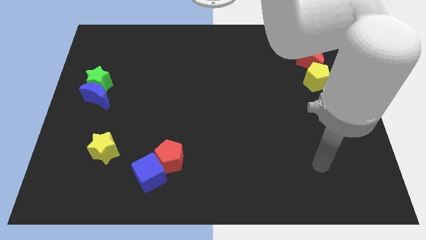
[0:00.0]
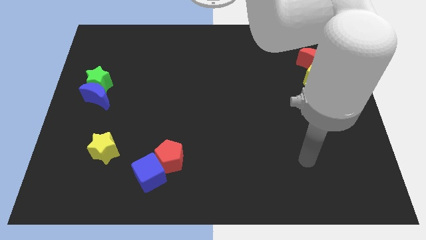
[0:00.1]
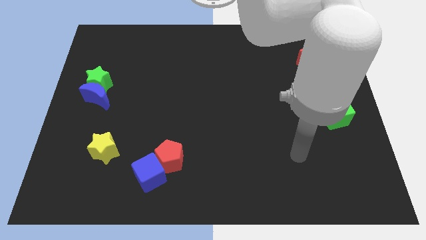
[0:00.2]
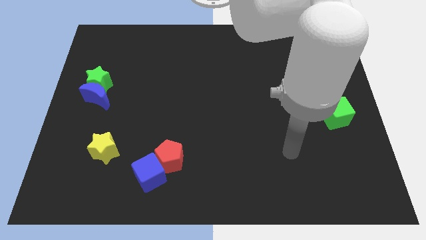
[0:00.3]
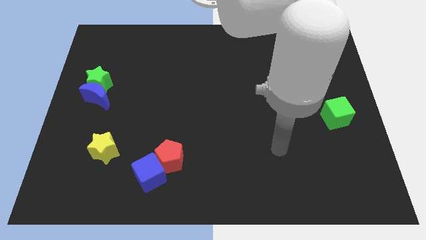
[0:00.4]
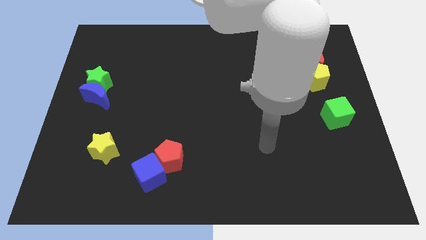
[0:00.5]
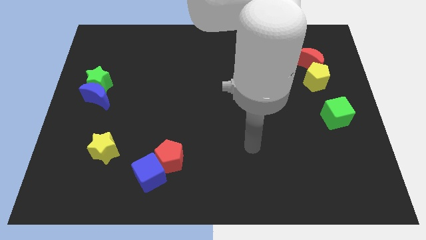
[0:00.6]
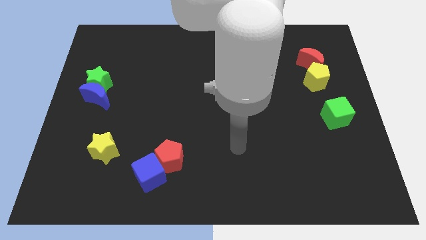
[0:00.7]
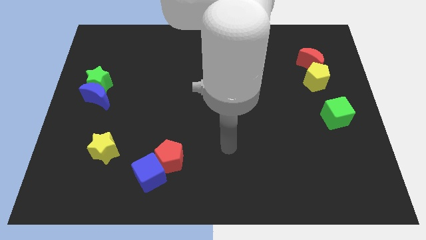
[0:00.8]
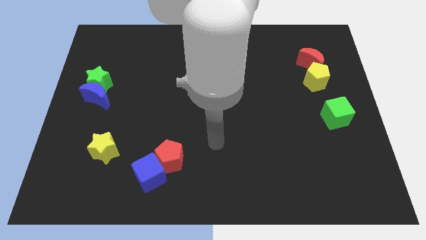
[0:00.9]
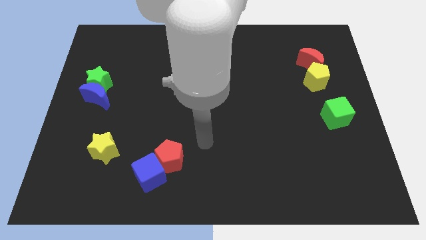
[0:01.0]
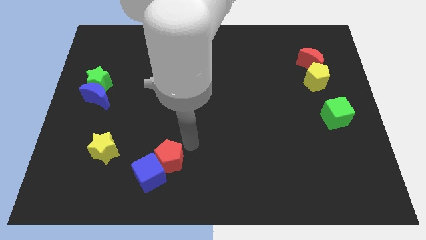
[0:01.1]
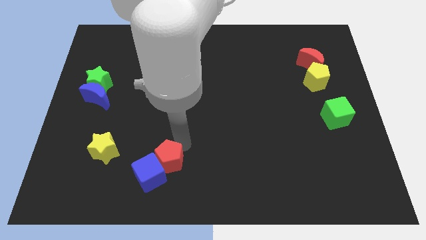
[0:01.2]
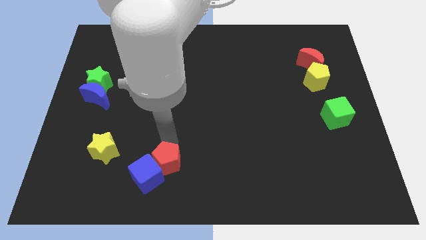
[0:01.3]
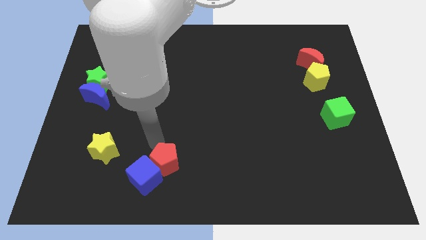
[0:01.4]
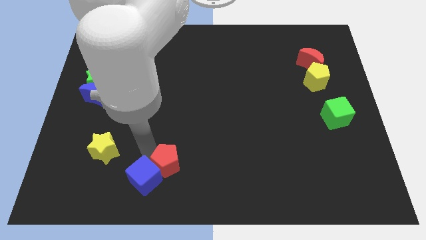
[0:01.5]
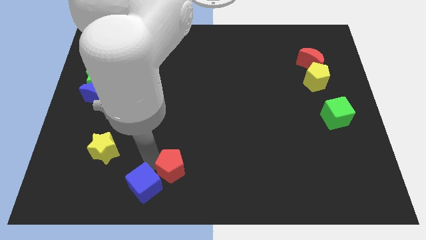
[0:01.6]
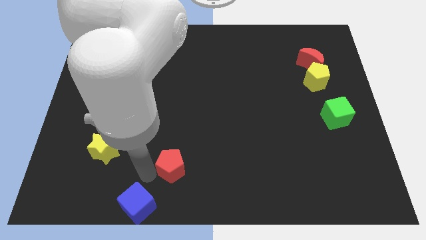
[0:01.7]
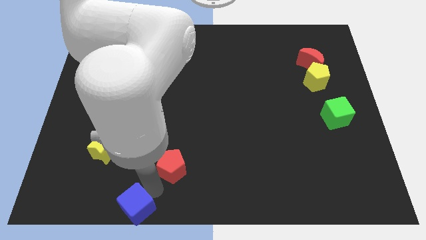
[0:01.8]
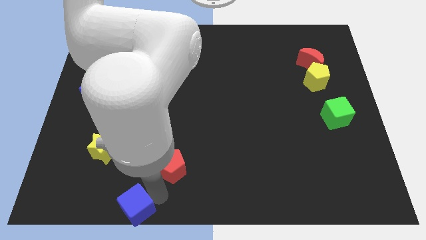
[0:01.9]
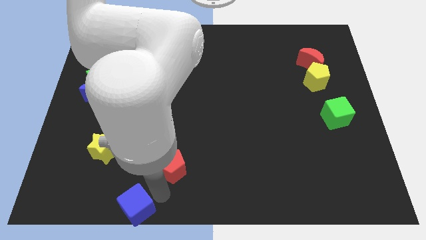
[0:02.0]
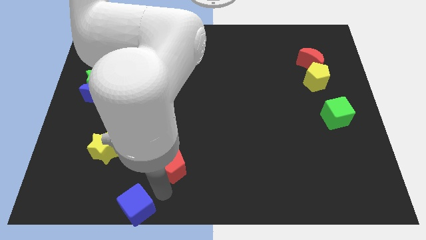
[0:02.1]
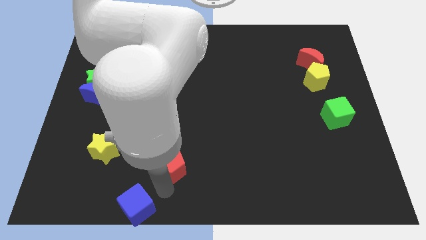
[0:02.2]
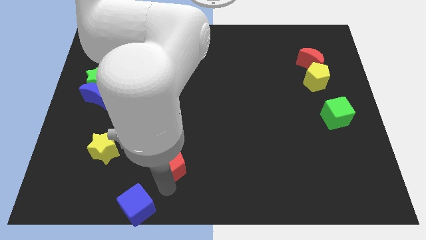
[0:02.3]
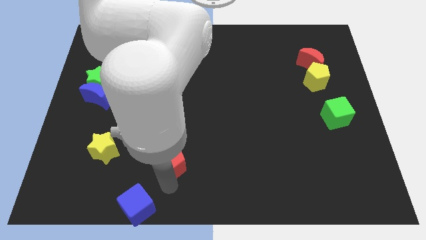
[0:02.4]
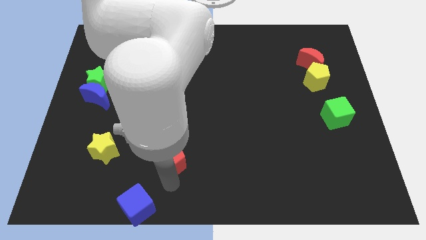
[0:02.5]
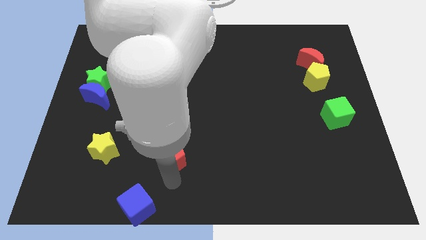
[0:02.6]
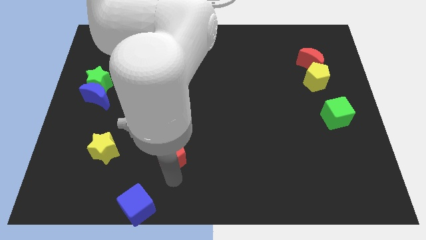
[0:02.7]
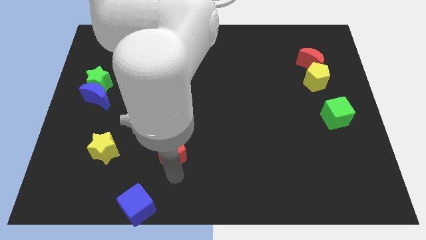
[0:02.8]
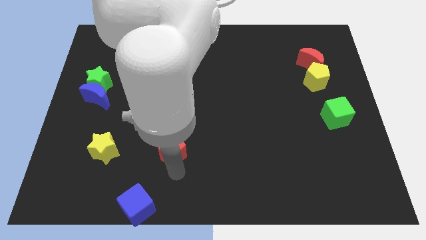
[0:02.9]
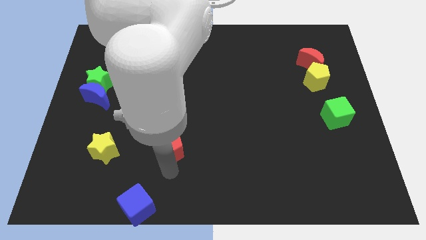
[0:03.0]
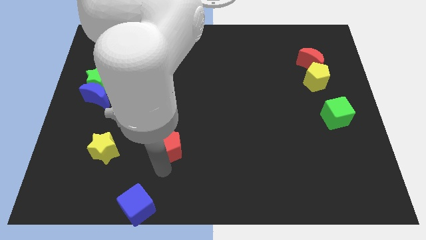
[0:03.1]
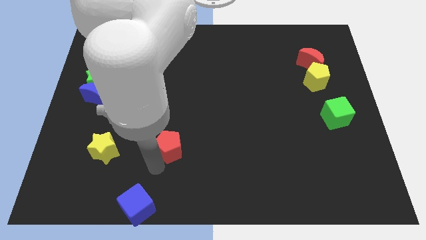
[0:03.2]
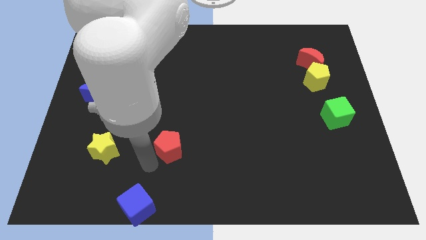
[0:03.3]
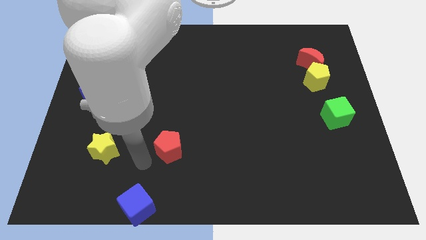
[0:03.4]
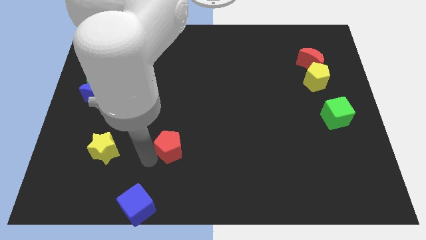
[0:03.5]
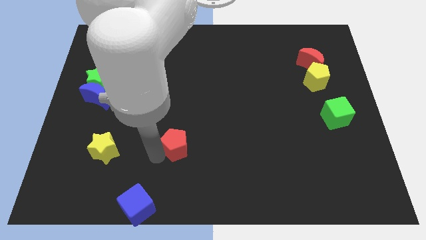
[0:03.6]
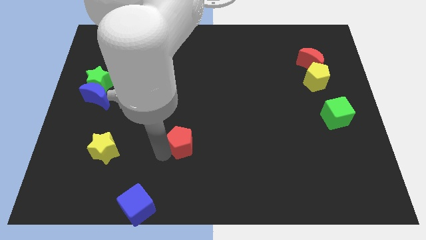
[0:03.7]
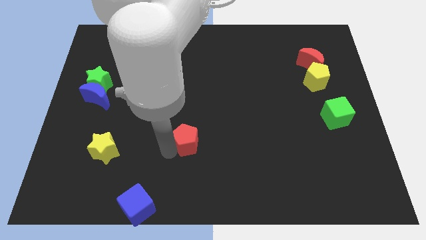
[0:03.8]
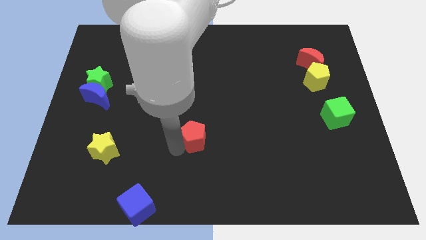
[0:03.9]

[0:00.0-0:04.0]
slide the red pentagon diagonally upwards and right slightly

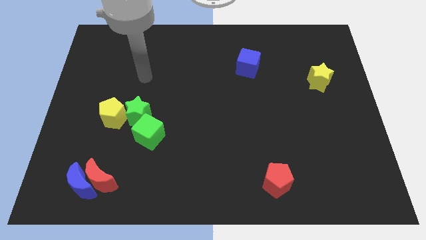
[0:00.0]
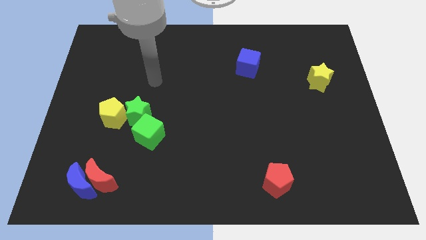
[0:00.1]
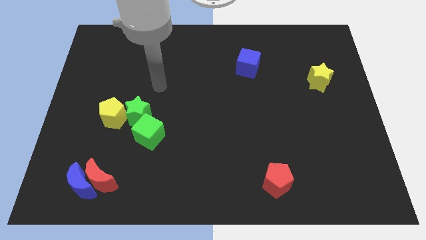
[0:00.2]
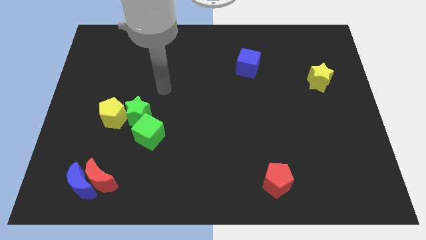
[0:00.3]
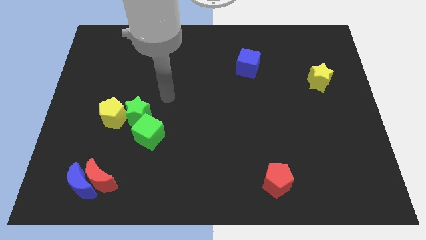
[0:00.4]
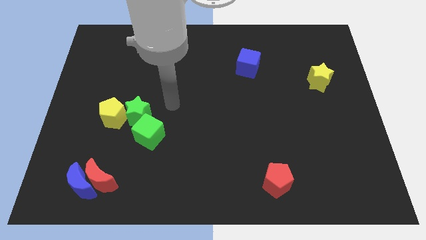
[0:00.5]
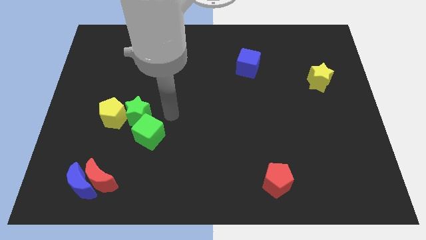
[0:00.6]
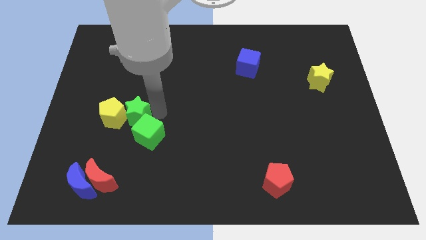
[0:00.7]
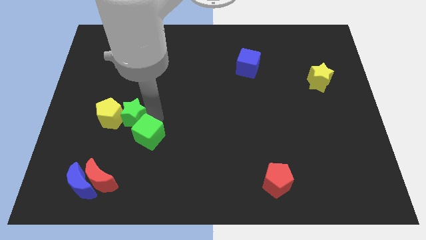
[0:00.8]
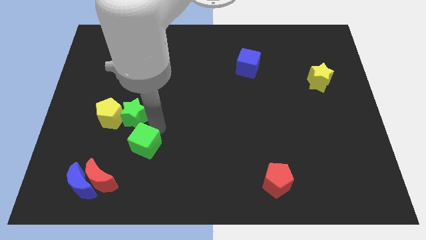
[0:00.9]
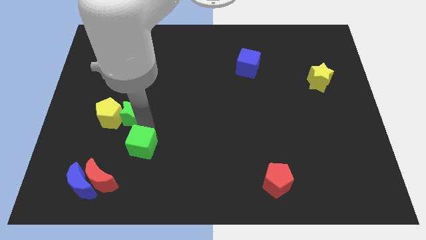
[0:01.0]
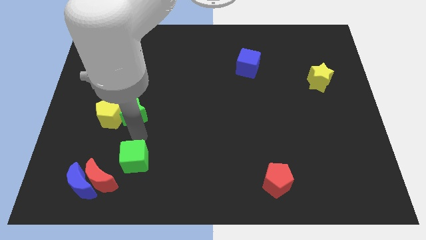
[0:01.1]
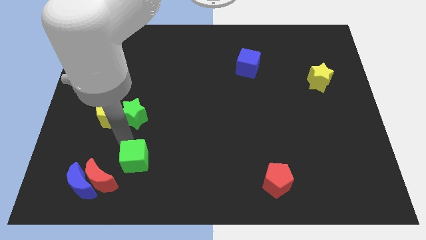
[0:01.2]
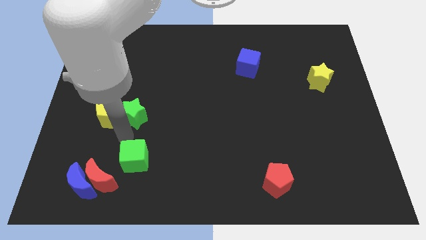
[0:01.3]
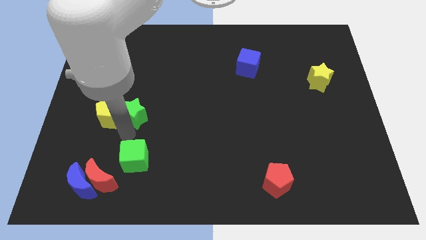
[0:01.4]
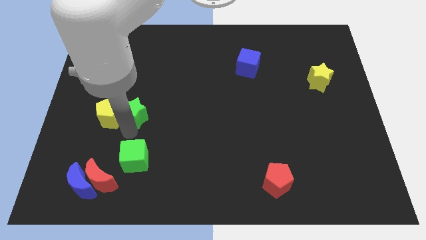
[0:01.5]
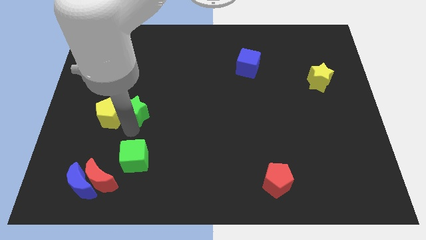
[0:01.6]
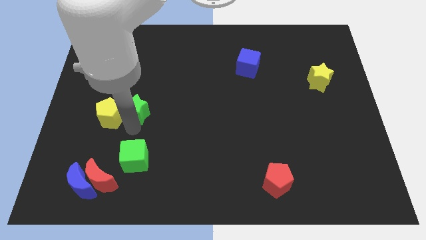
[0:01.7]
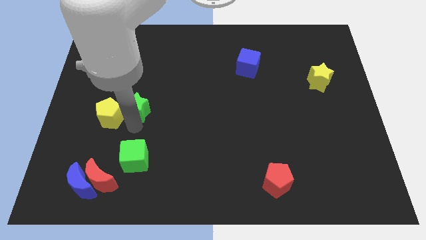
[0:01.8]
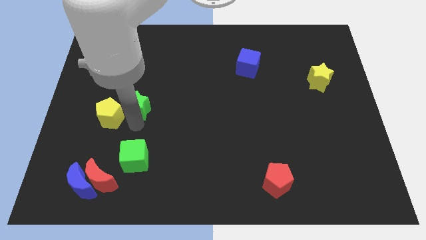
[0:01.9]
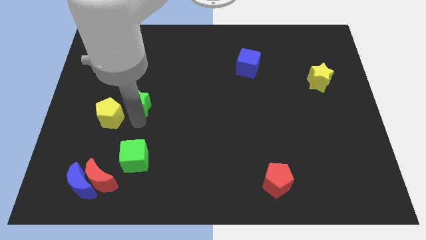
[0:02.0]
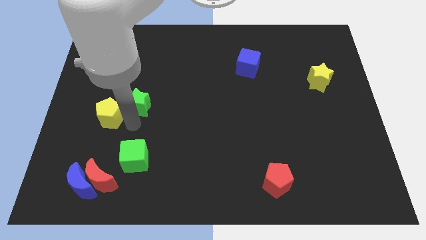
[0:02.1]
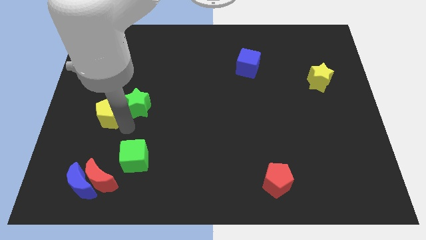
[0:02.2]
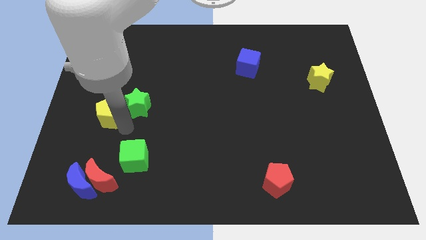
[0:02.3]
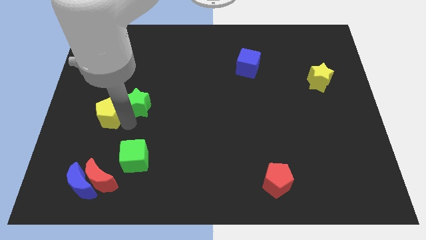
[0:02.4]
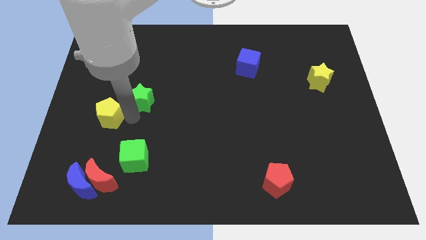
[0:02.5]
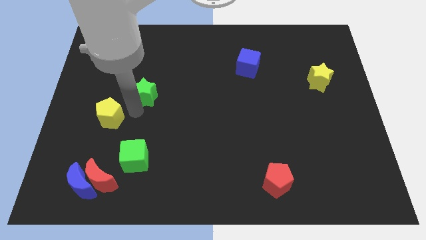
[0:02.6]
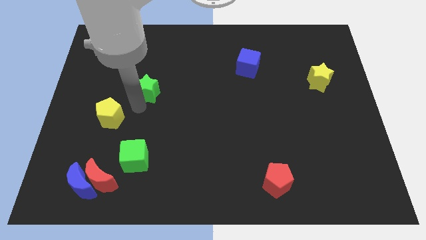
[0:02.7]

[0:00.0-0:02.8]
move the green star a little bit up

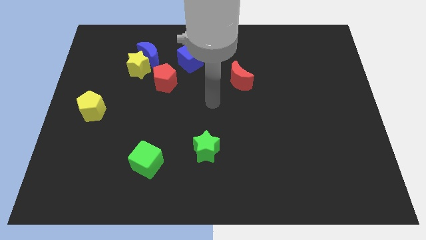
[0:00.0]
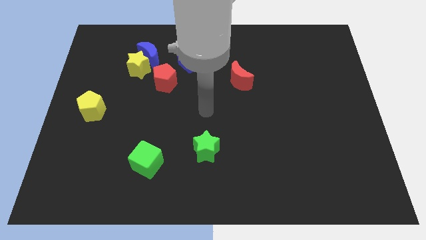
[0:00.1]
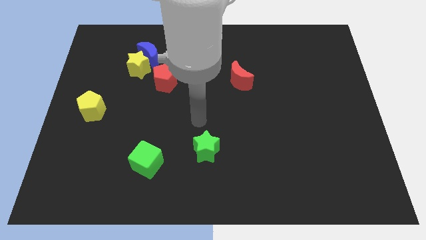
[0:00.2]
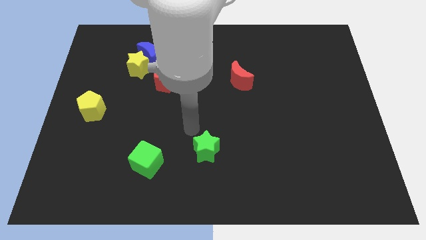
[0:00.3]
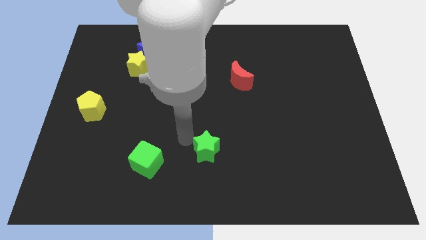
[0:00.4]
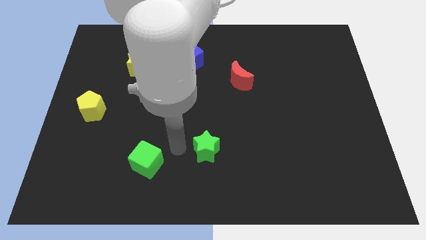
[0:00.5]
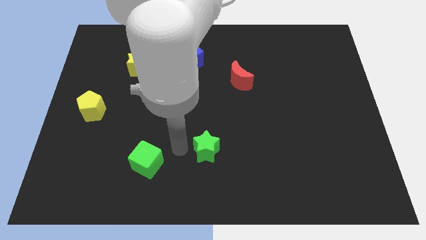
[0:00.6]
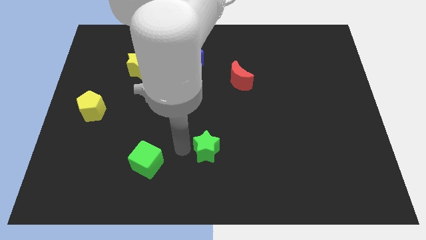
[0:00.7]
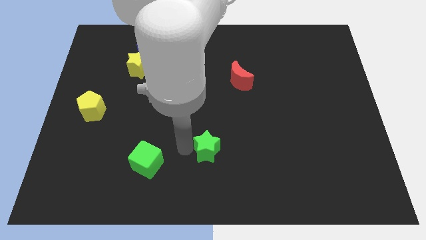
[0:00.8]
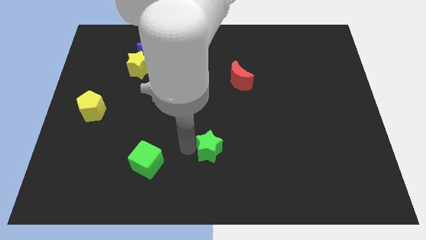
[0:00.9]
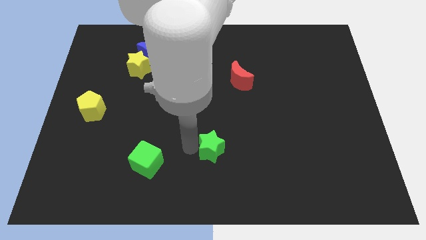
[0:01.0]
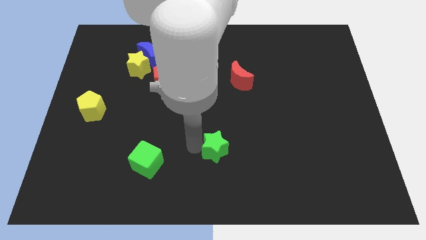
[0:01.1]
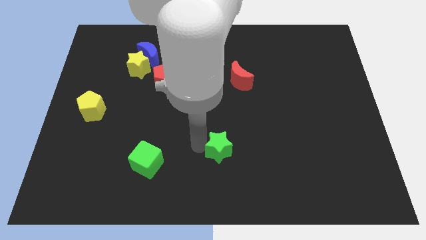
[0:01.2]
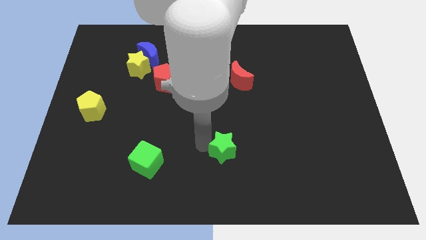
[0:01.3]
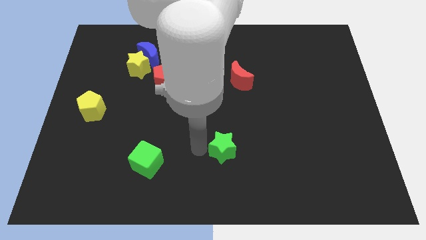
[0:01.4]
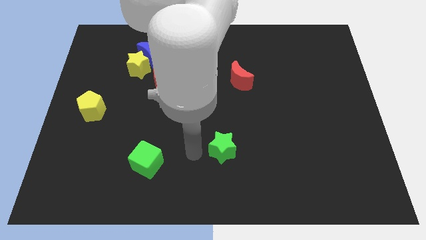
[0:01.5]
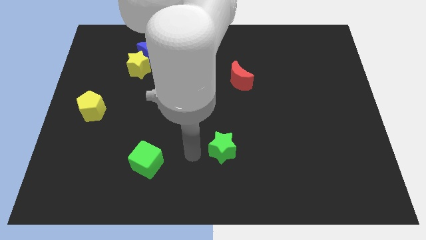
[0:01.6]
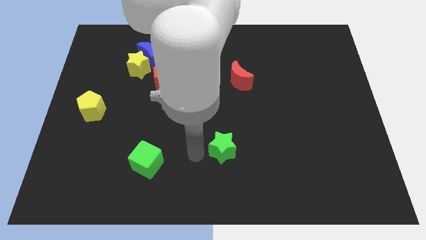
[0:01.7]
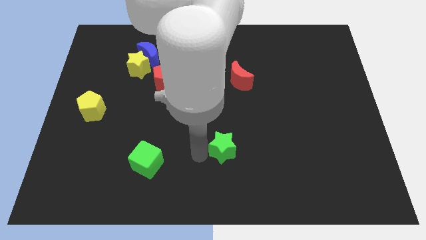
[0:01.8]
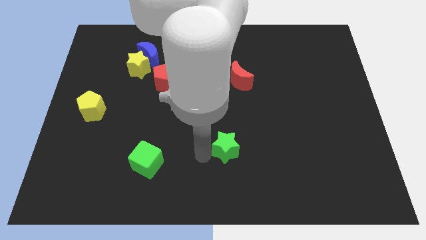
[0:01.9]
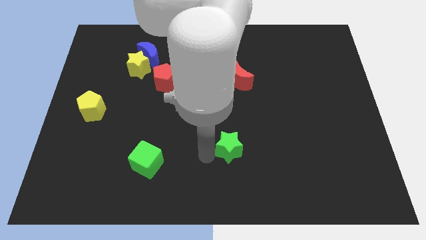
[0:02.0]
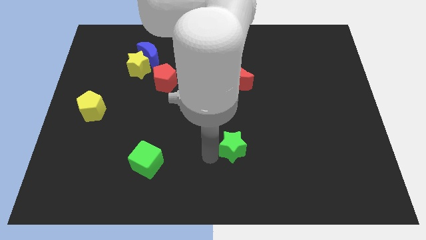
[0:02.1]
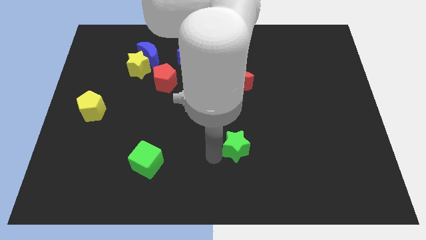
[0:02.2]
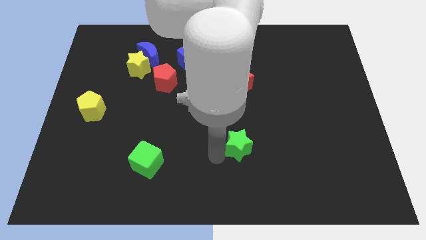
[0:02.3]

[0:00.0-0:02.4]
move the green star to the right somewhat
